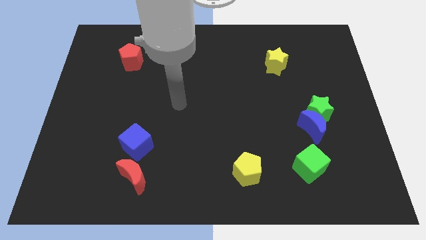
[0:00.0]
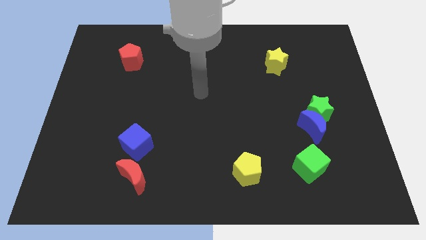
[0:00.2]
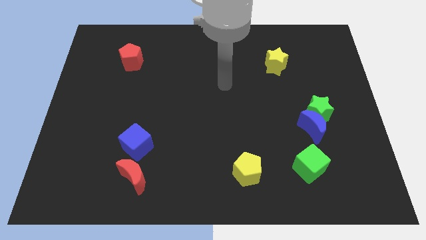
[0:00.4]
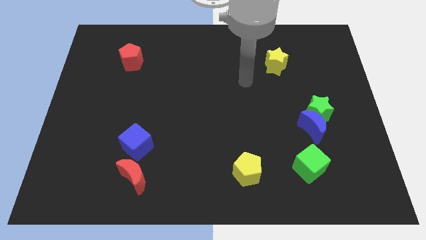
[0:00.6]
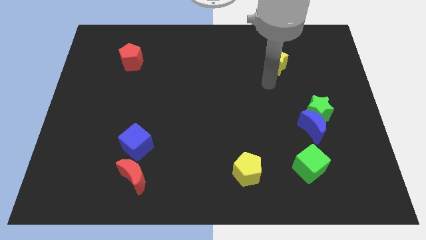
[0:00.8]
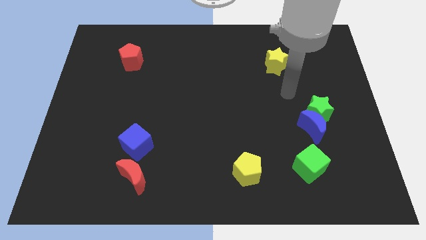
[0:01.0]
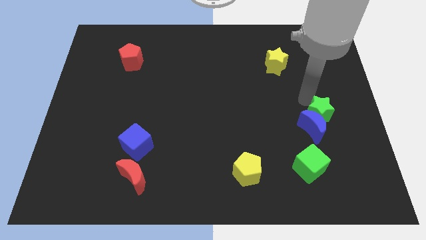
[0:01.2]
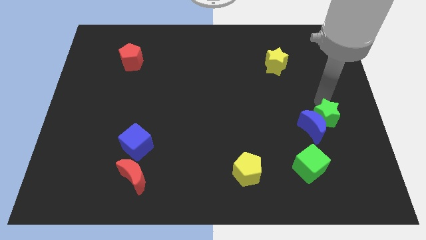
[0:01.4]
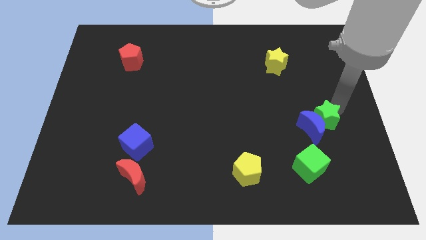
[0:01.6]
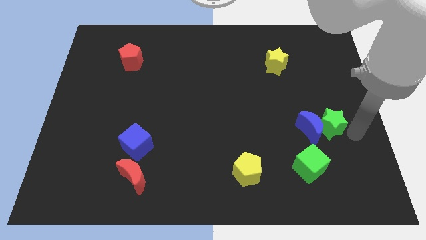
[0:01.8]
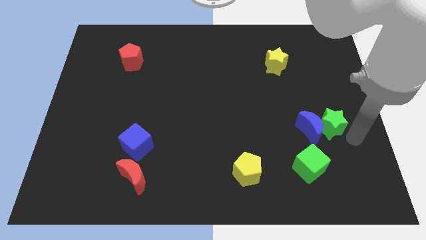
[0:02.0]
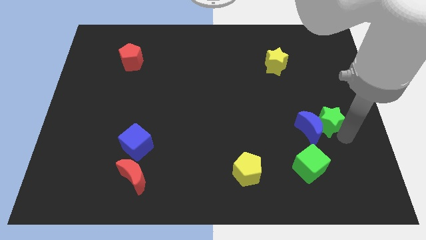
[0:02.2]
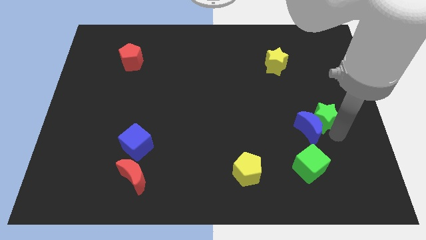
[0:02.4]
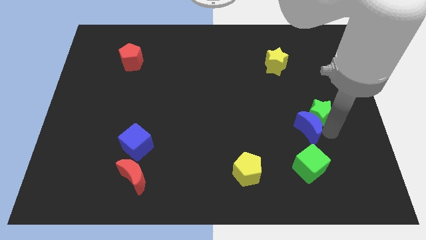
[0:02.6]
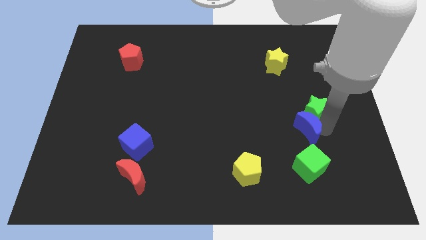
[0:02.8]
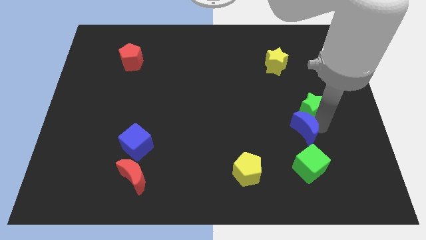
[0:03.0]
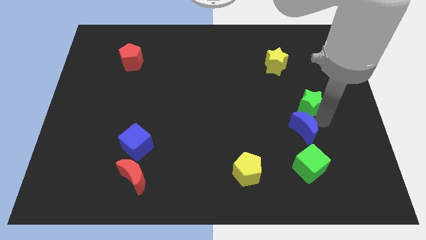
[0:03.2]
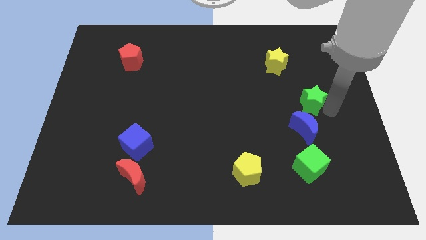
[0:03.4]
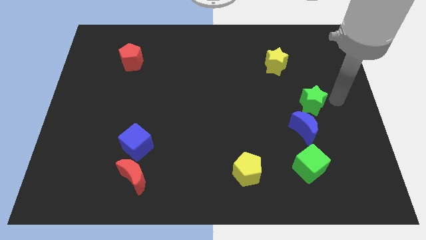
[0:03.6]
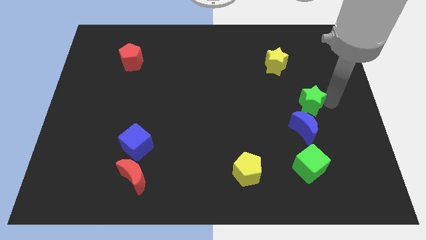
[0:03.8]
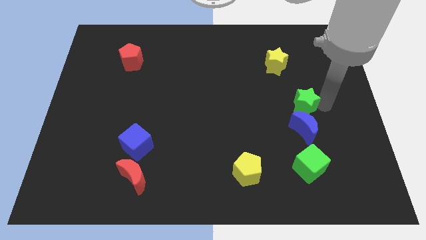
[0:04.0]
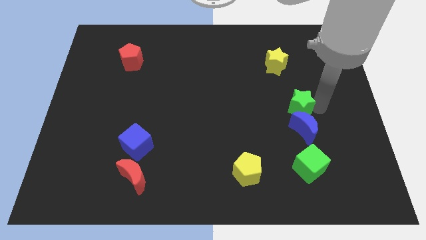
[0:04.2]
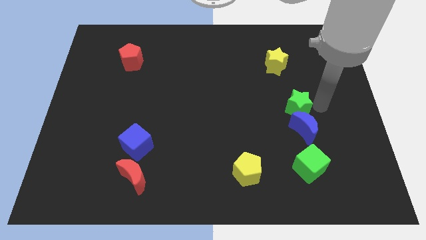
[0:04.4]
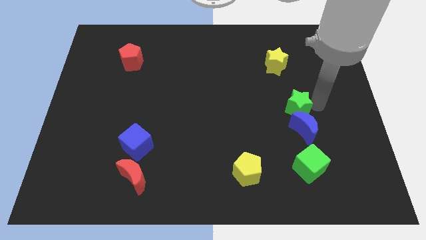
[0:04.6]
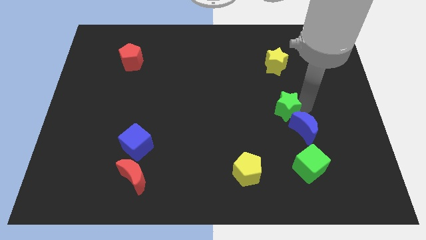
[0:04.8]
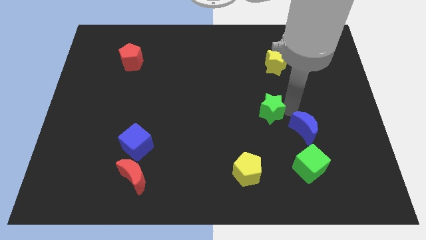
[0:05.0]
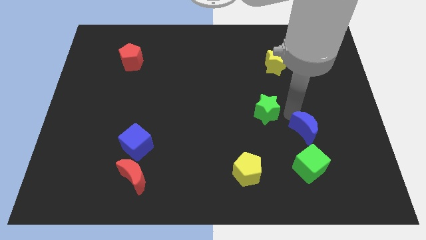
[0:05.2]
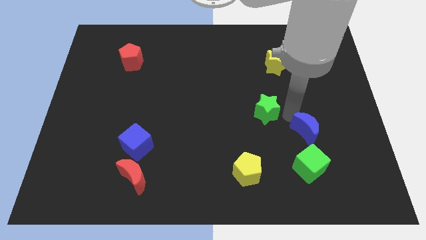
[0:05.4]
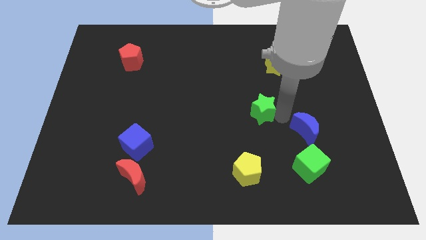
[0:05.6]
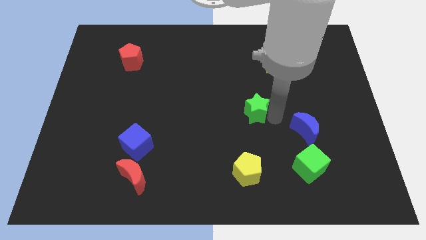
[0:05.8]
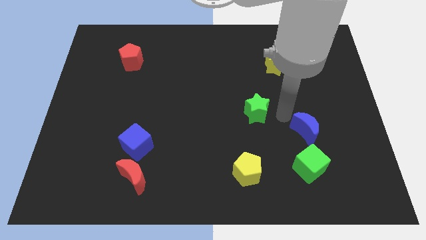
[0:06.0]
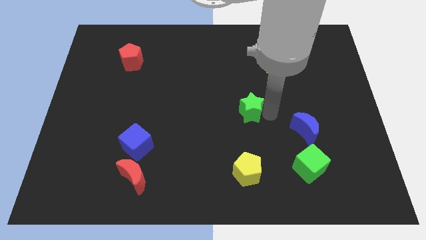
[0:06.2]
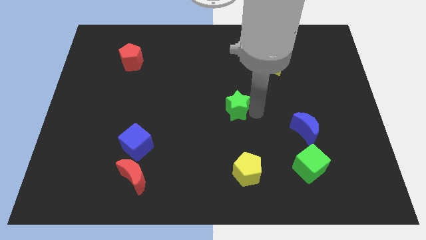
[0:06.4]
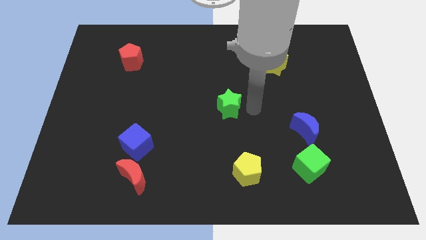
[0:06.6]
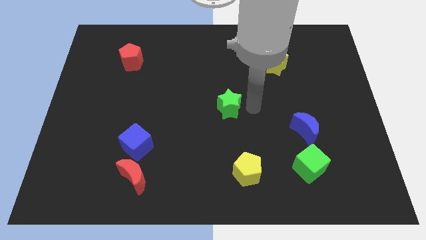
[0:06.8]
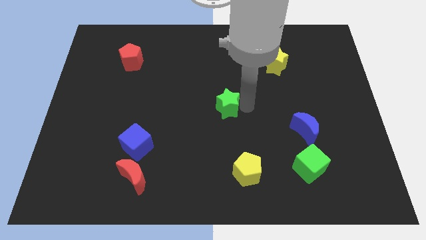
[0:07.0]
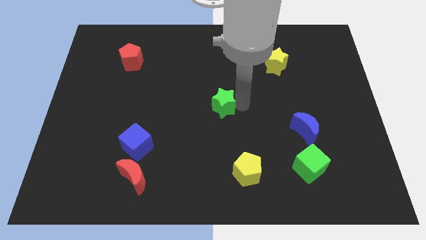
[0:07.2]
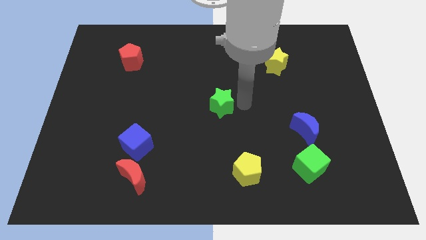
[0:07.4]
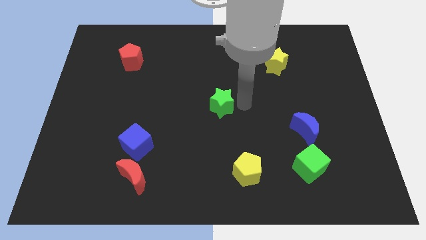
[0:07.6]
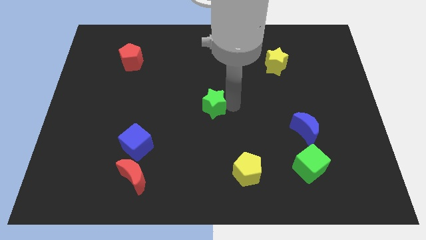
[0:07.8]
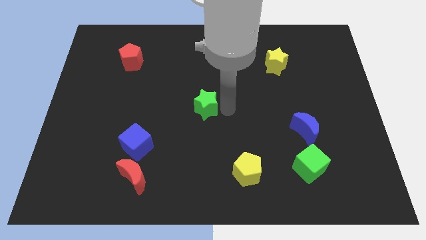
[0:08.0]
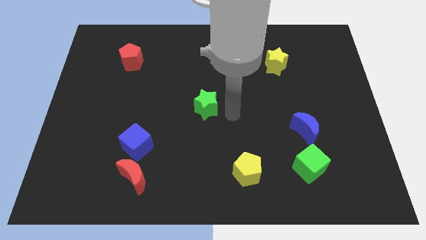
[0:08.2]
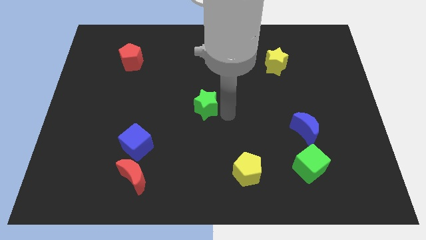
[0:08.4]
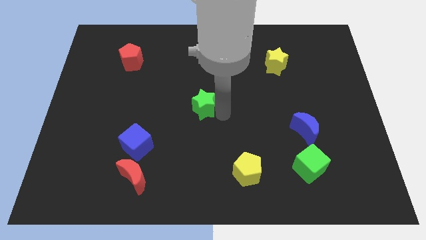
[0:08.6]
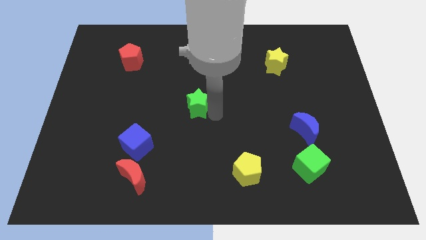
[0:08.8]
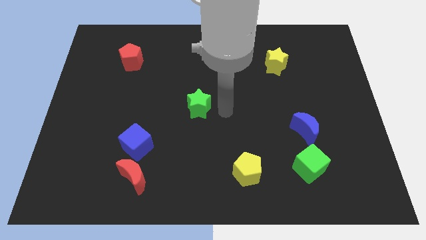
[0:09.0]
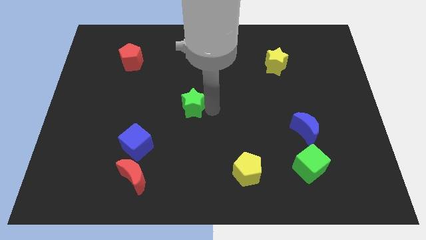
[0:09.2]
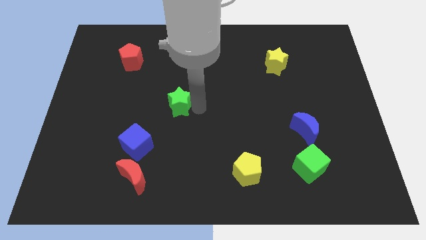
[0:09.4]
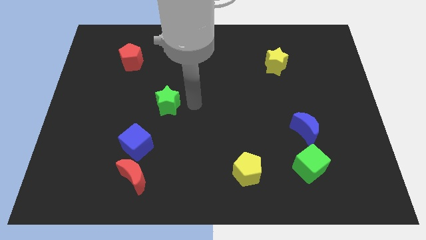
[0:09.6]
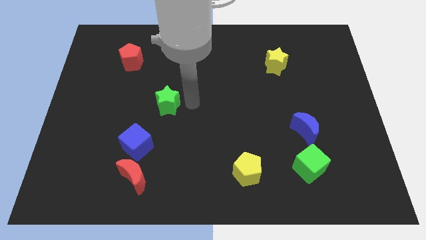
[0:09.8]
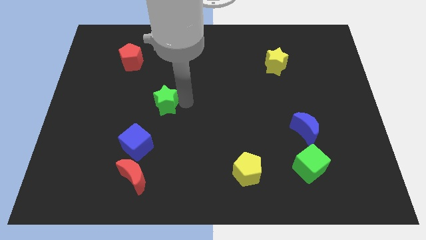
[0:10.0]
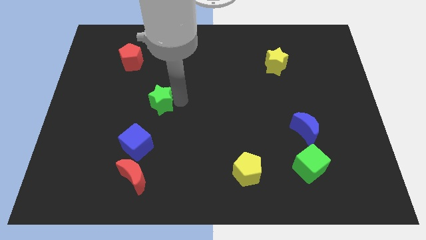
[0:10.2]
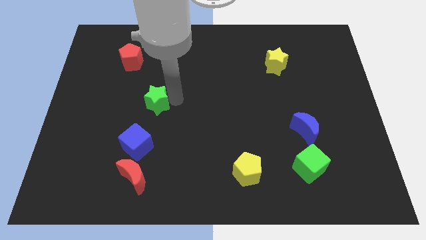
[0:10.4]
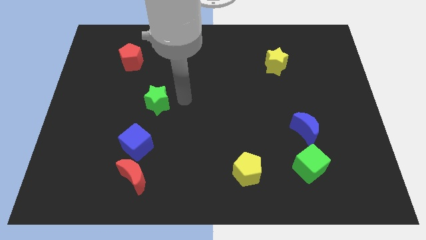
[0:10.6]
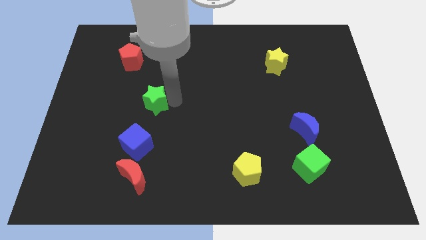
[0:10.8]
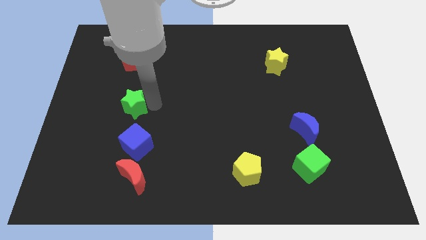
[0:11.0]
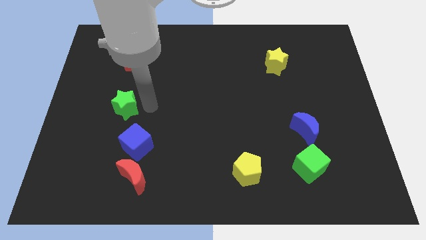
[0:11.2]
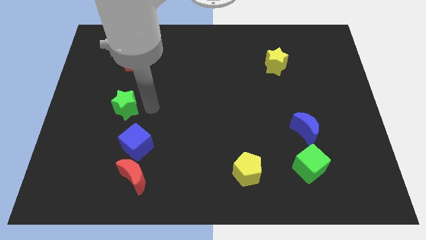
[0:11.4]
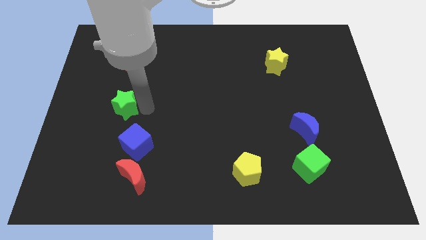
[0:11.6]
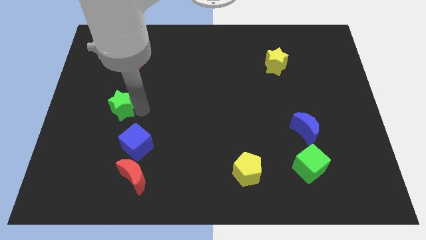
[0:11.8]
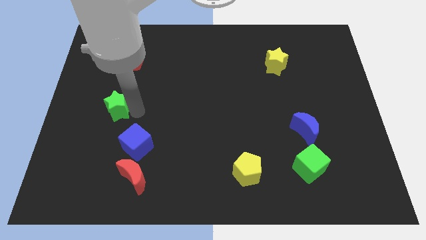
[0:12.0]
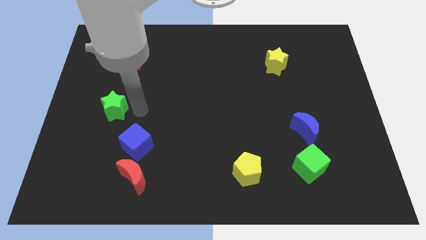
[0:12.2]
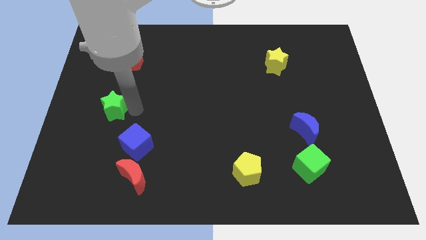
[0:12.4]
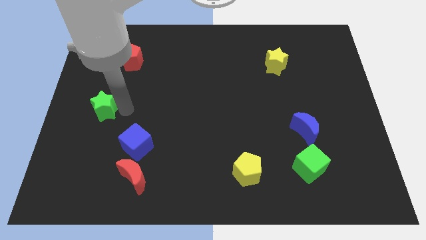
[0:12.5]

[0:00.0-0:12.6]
move the green star to the left side
